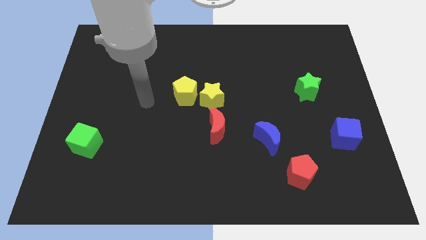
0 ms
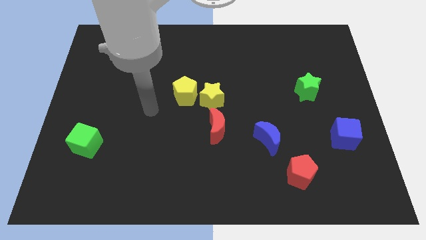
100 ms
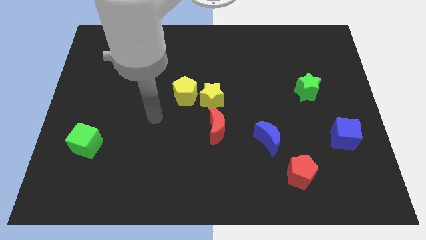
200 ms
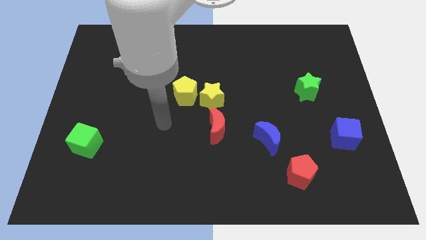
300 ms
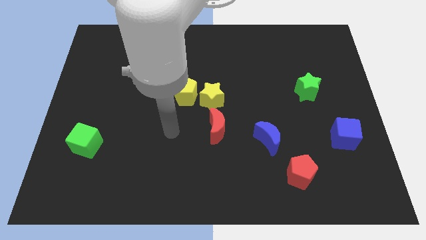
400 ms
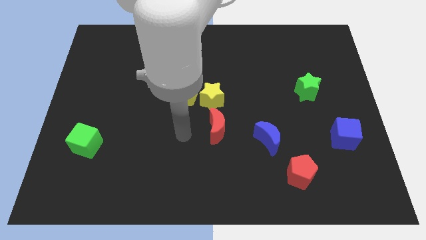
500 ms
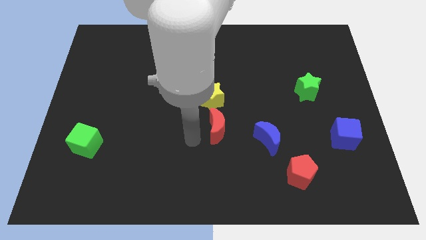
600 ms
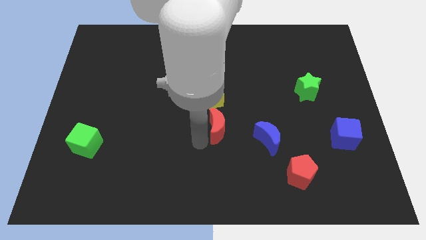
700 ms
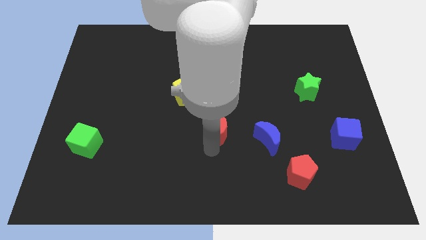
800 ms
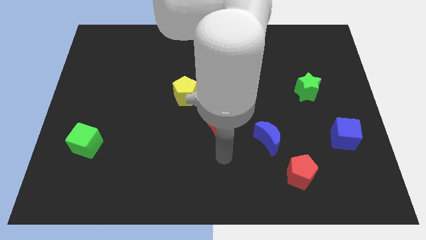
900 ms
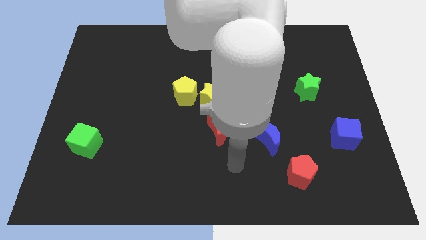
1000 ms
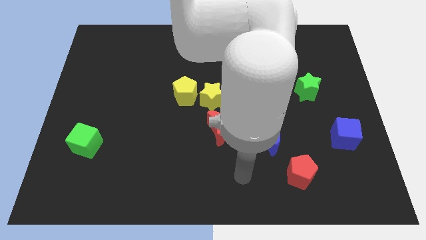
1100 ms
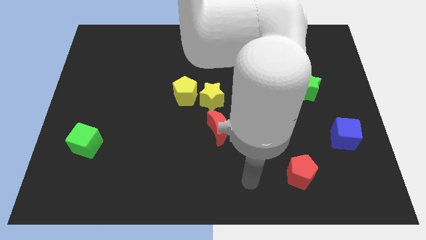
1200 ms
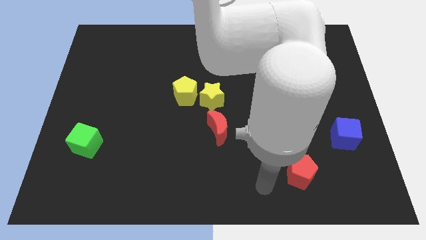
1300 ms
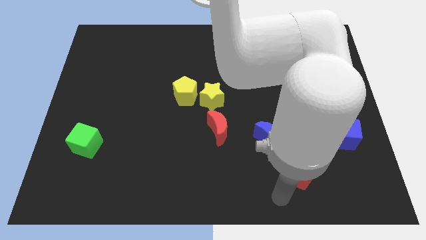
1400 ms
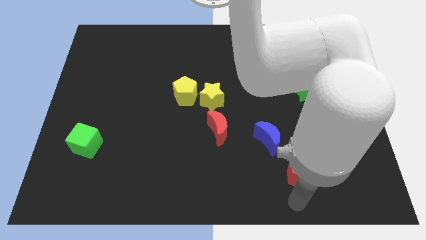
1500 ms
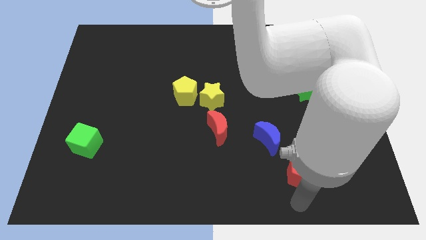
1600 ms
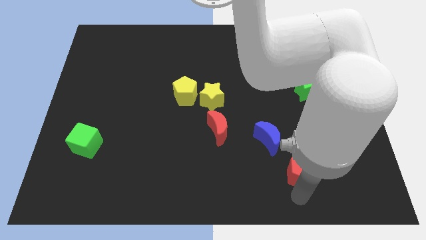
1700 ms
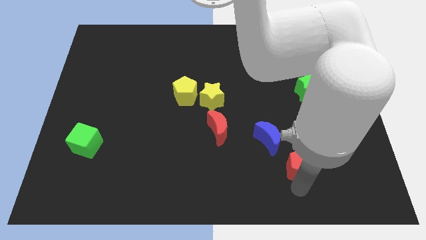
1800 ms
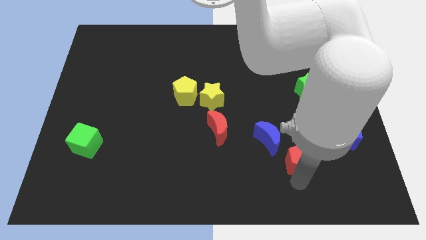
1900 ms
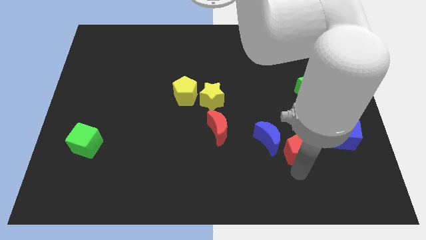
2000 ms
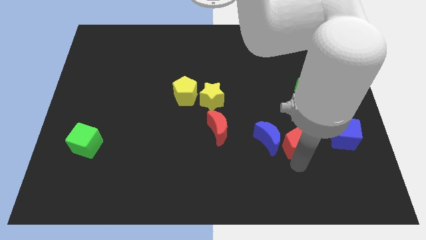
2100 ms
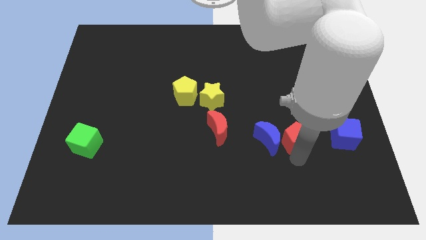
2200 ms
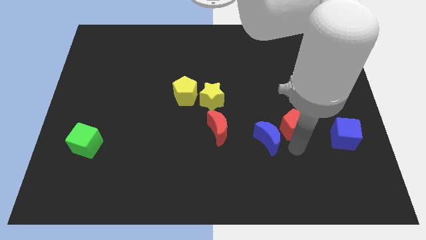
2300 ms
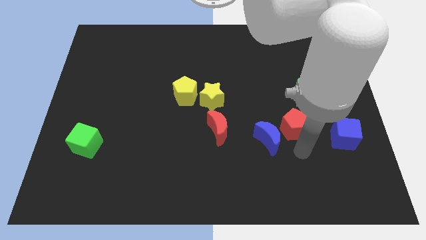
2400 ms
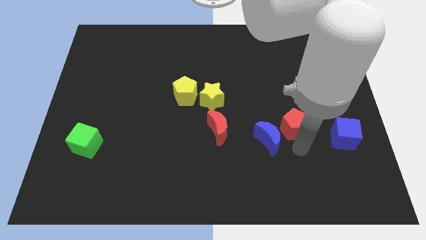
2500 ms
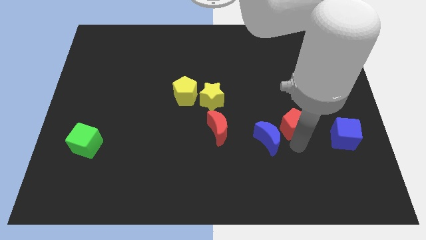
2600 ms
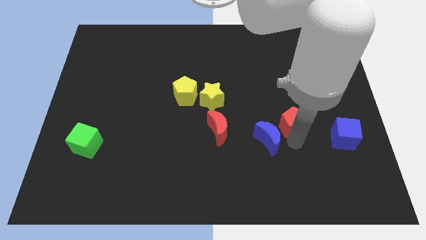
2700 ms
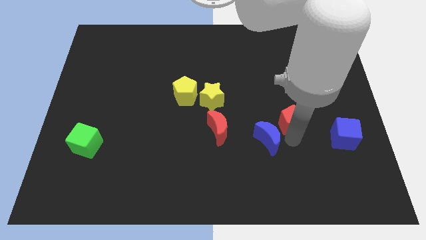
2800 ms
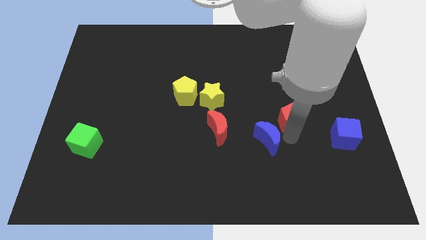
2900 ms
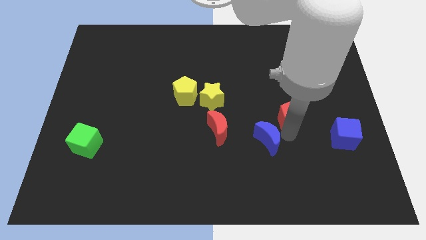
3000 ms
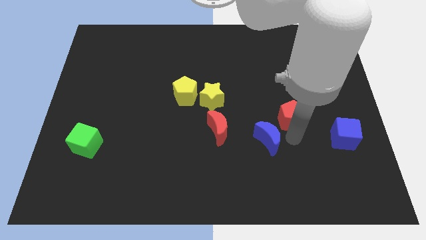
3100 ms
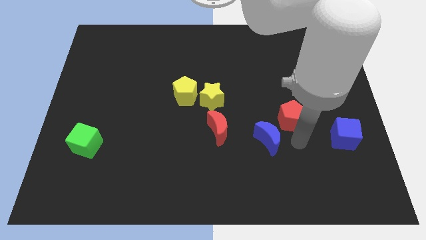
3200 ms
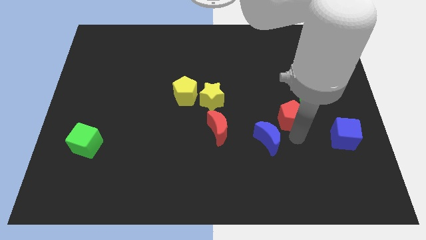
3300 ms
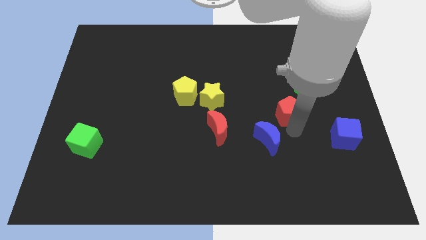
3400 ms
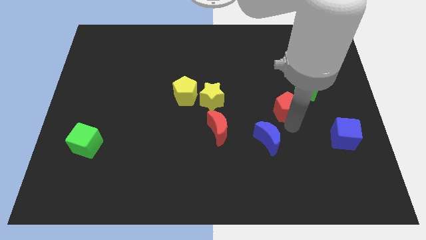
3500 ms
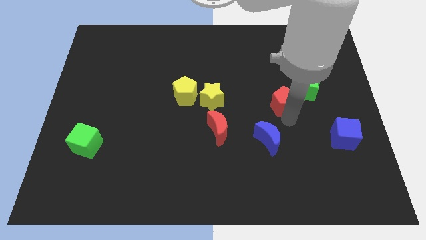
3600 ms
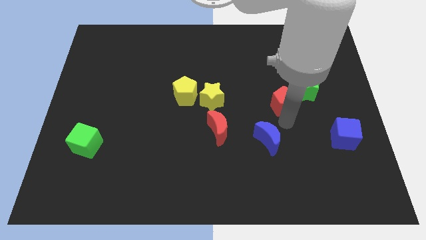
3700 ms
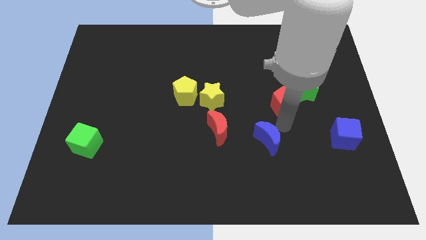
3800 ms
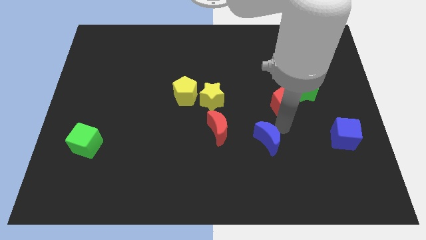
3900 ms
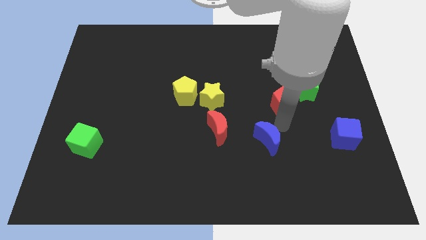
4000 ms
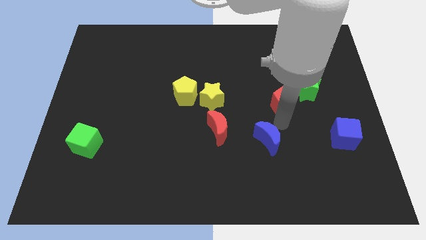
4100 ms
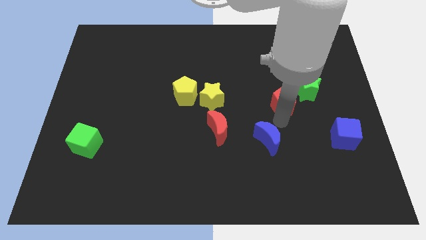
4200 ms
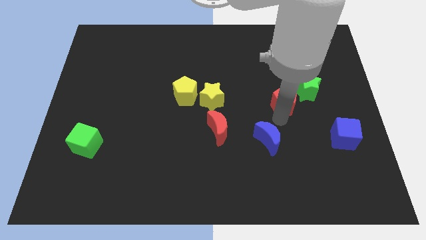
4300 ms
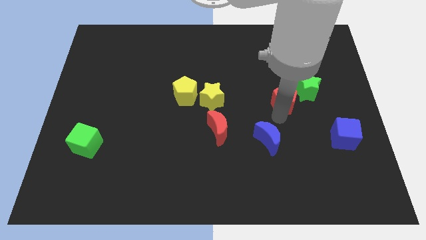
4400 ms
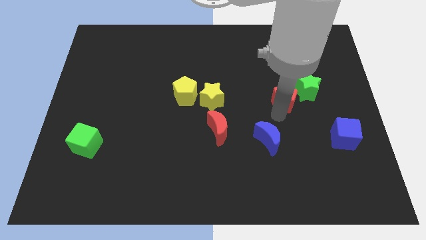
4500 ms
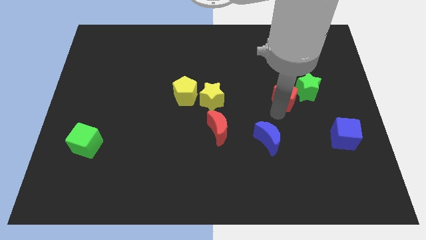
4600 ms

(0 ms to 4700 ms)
slide the red pentagon up

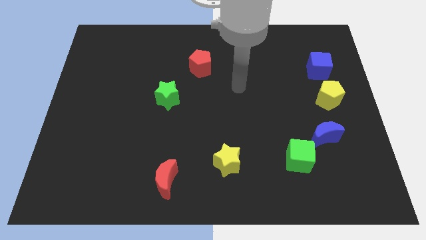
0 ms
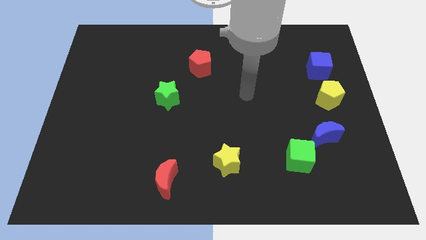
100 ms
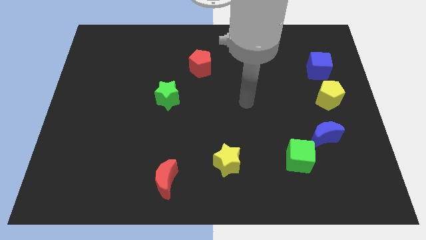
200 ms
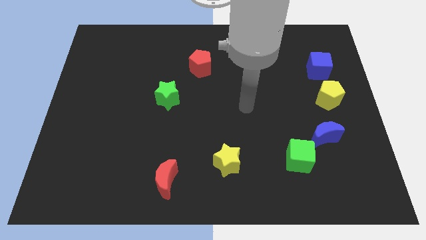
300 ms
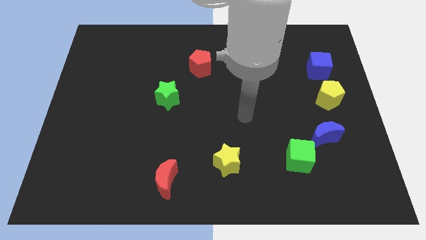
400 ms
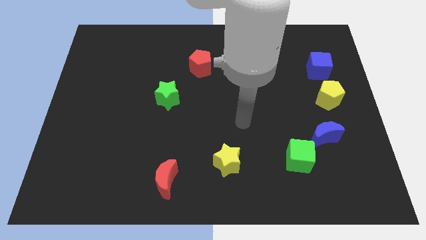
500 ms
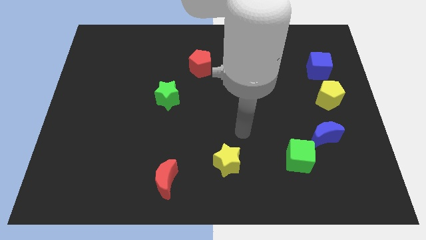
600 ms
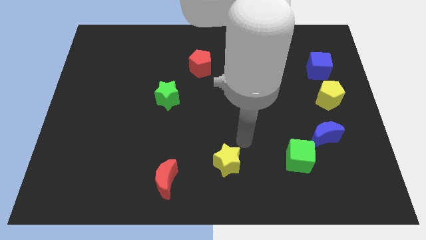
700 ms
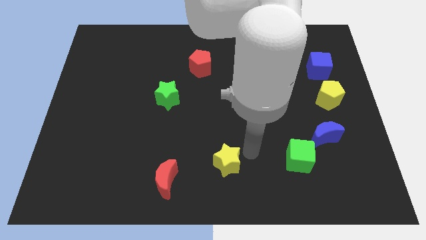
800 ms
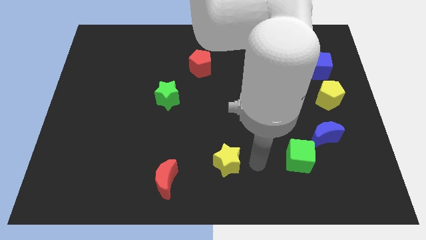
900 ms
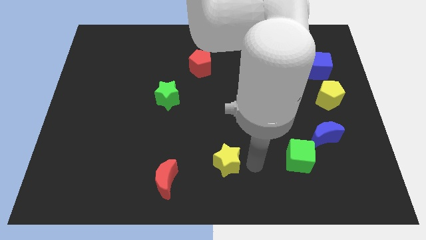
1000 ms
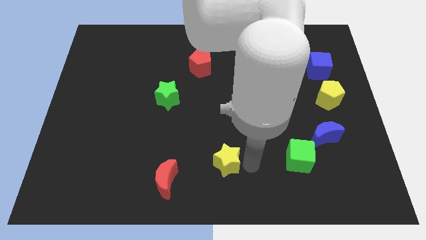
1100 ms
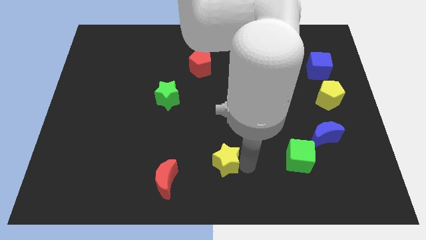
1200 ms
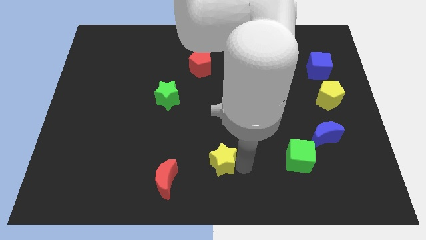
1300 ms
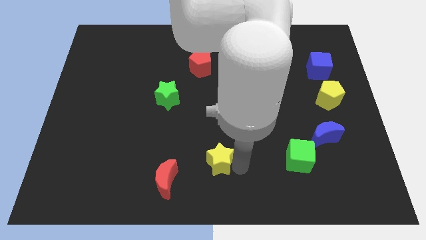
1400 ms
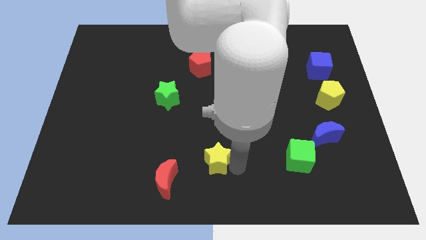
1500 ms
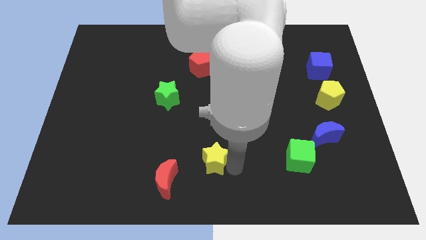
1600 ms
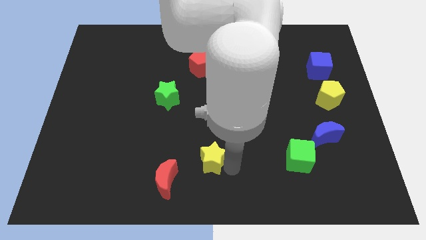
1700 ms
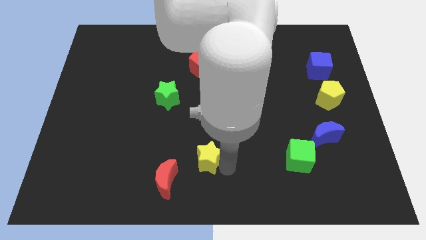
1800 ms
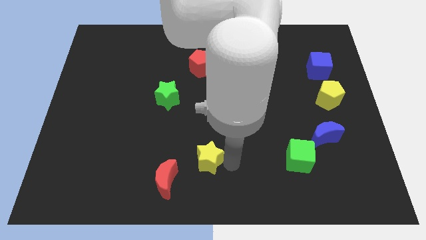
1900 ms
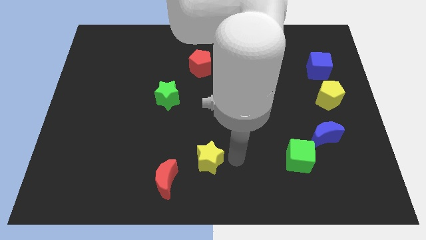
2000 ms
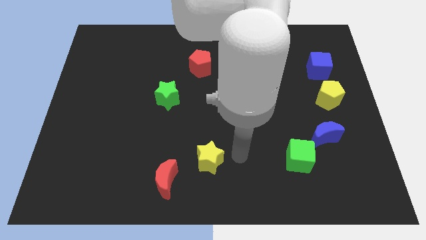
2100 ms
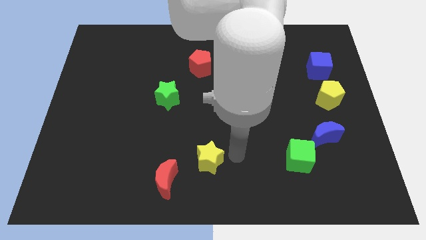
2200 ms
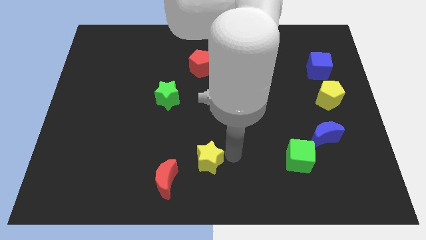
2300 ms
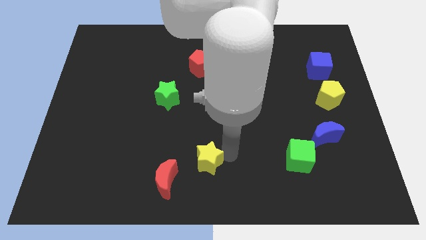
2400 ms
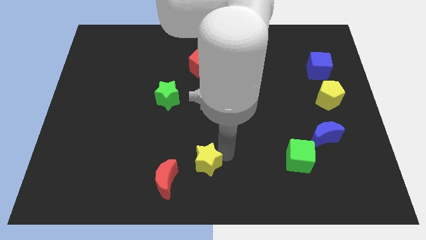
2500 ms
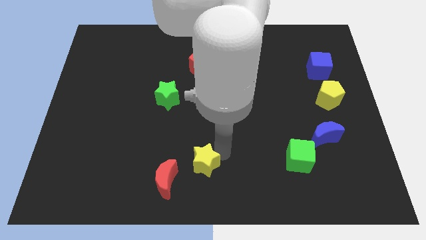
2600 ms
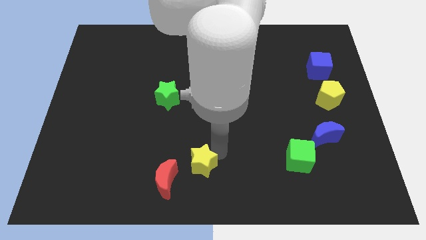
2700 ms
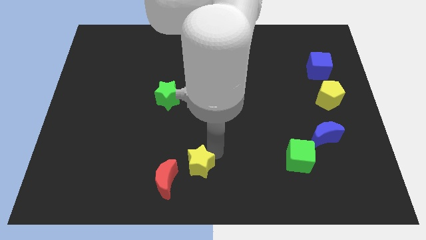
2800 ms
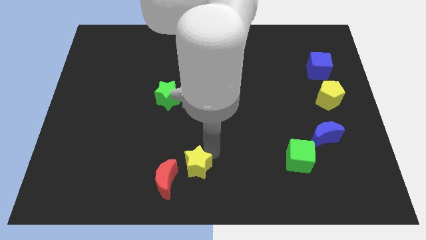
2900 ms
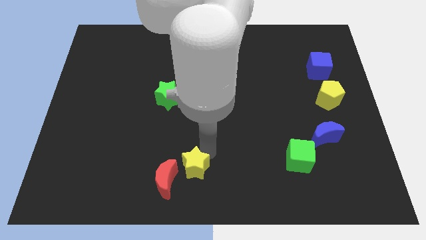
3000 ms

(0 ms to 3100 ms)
move the yellow star to the left a bit

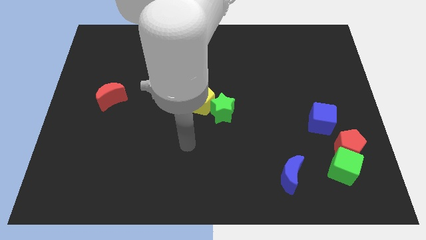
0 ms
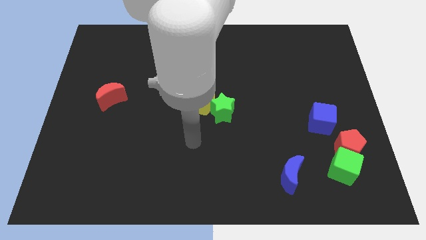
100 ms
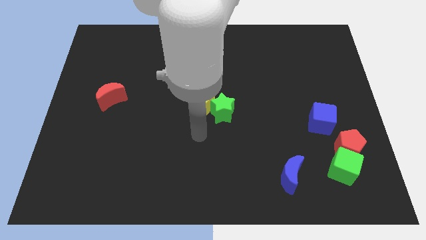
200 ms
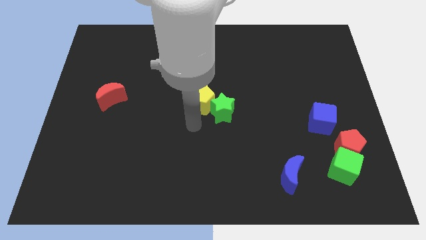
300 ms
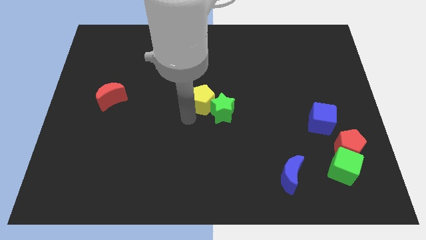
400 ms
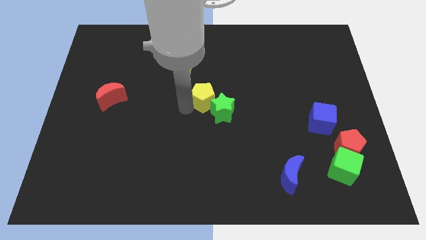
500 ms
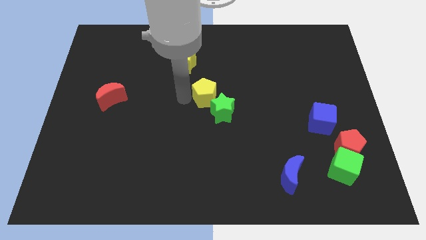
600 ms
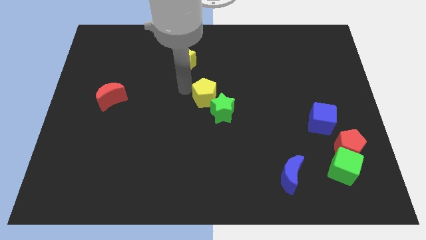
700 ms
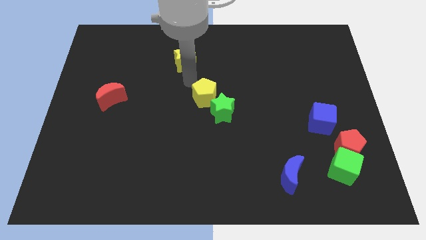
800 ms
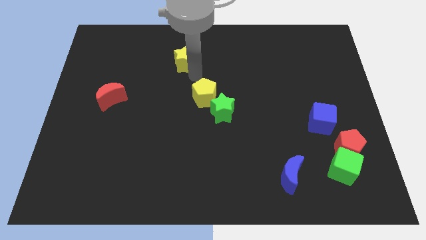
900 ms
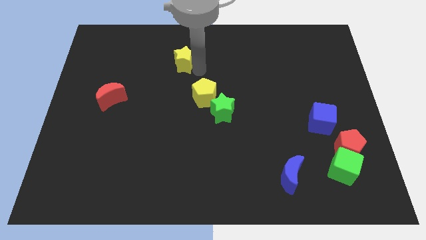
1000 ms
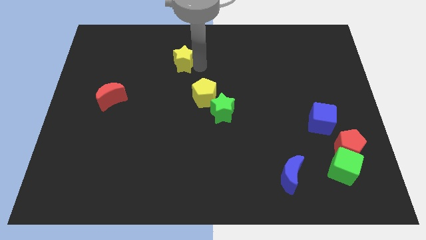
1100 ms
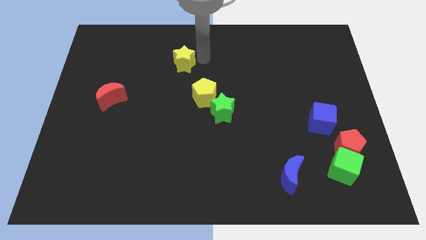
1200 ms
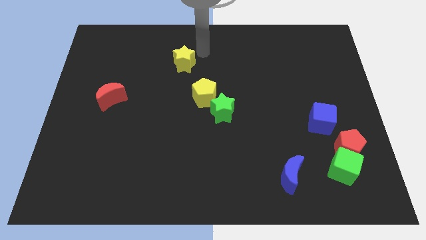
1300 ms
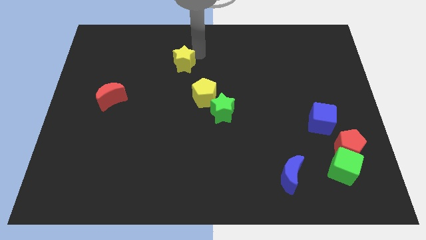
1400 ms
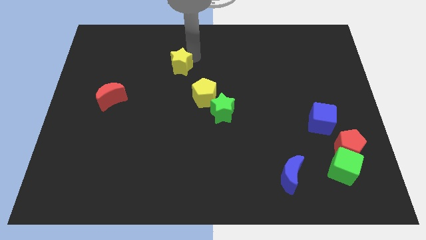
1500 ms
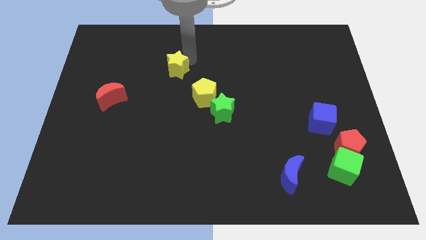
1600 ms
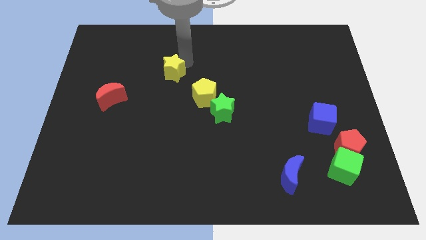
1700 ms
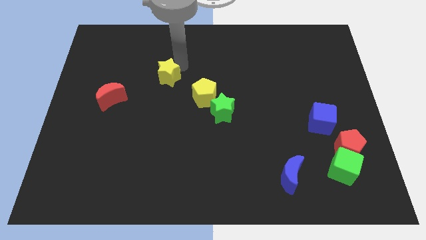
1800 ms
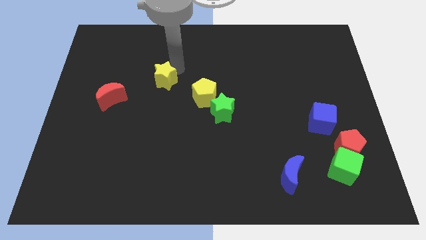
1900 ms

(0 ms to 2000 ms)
slightly push the yellow star down and to the left diagonally
